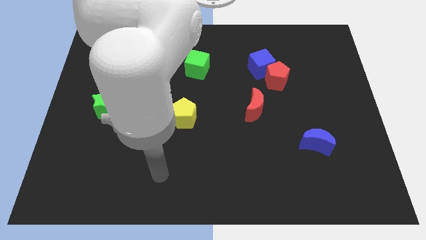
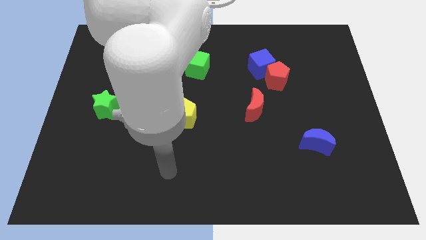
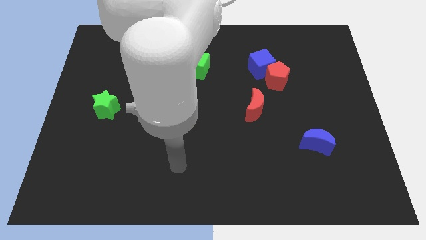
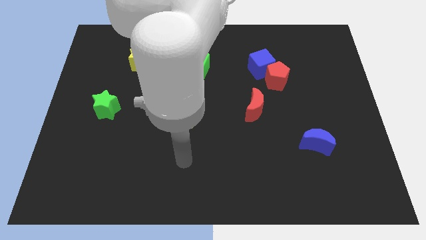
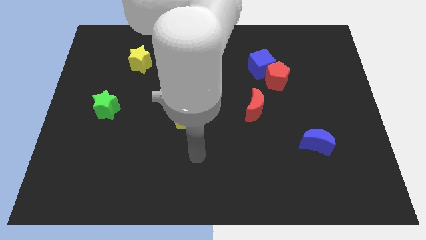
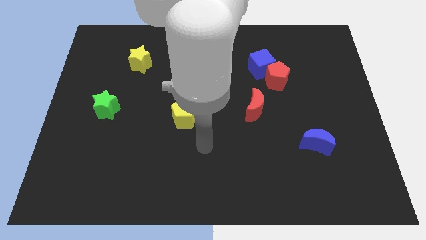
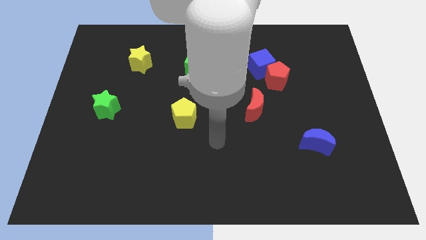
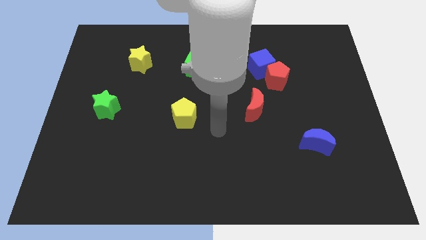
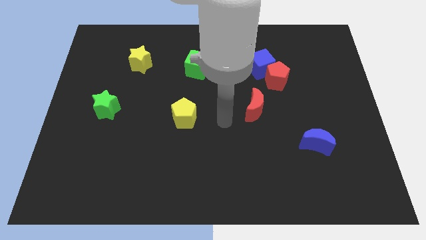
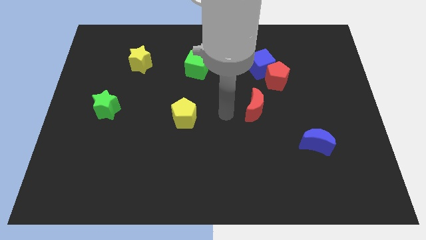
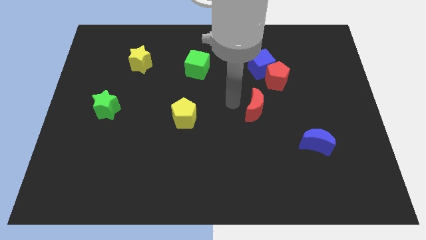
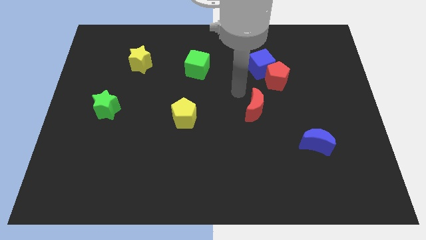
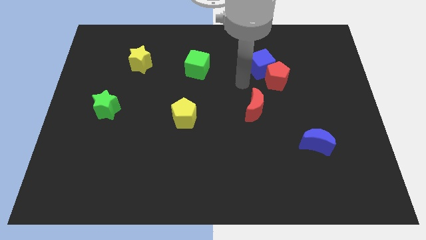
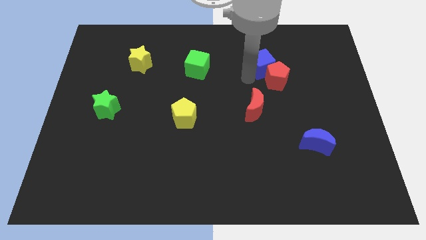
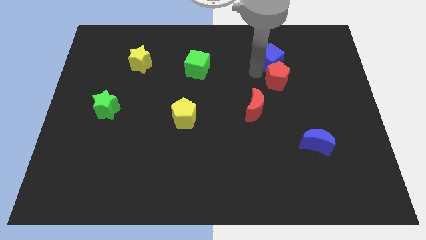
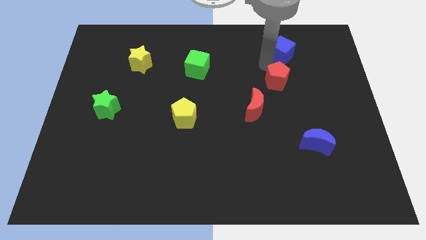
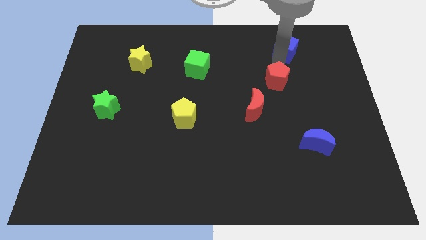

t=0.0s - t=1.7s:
pull the red pentagon apart from the blue cube

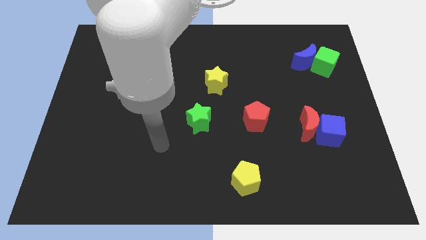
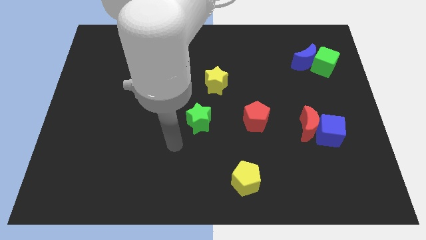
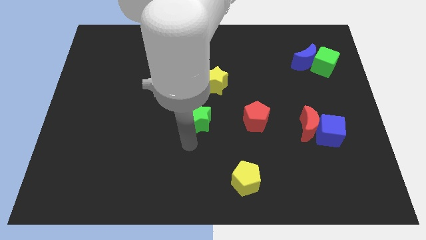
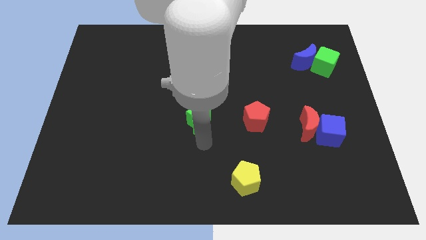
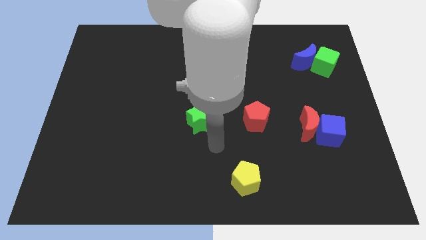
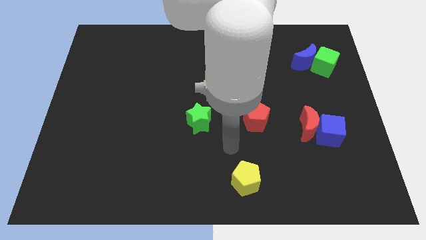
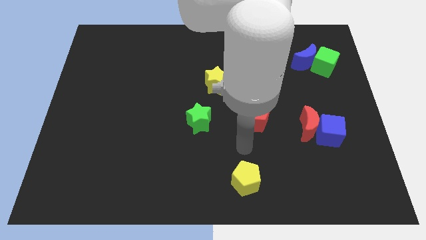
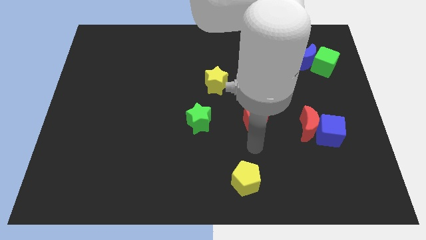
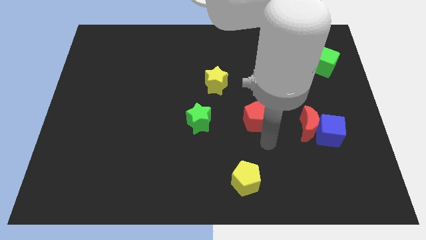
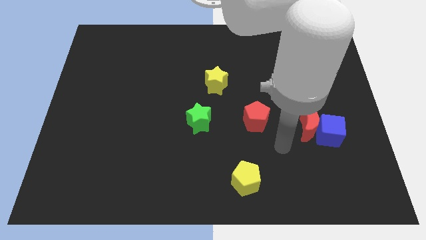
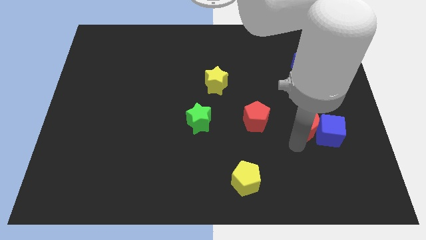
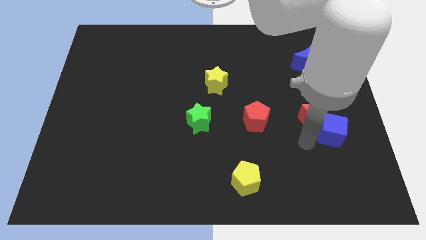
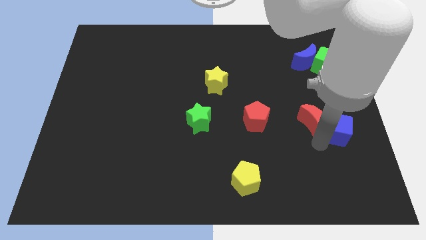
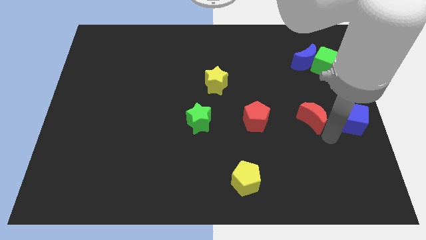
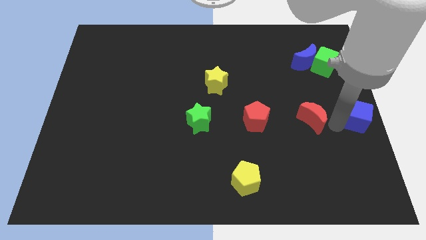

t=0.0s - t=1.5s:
pull the red moon apart from the blue cube

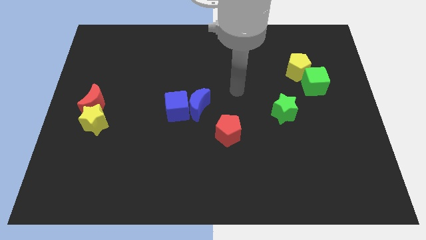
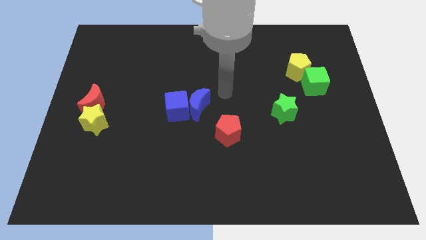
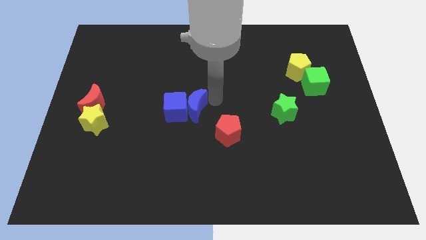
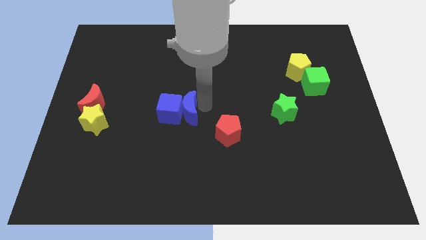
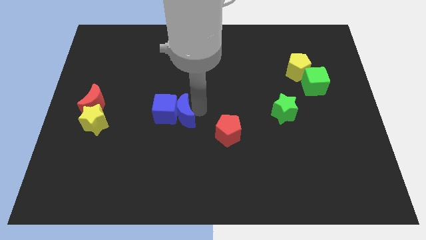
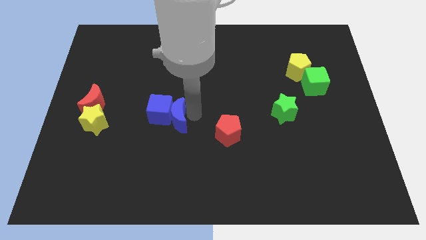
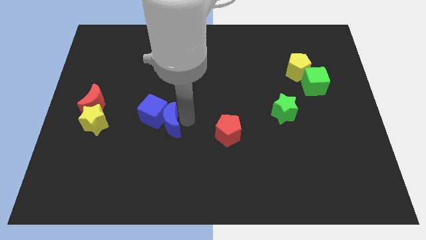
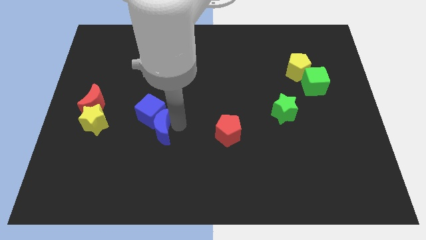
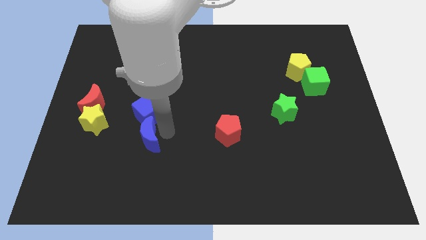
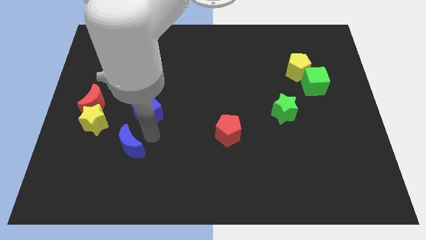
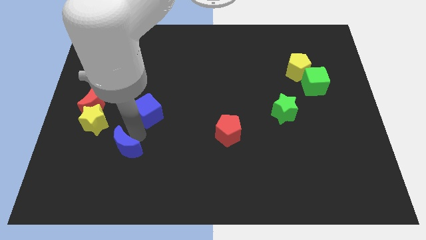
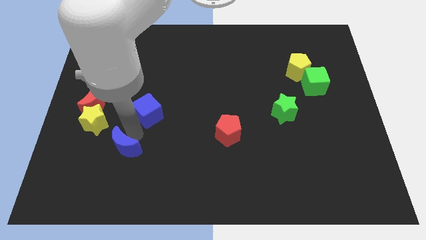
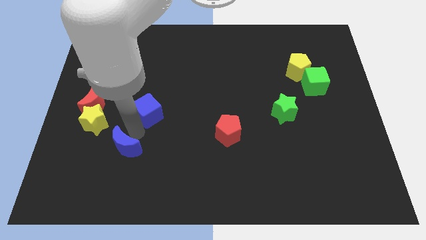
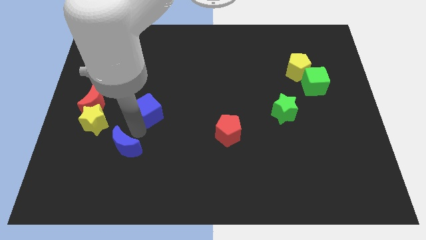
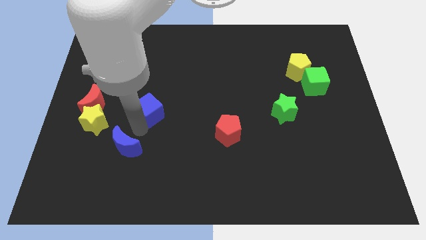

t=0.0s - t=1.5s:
move the blue cube away from the blue moon

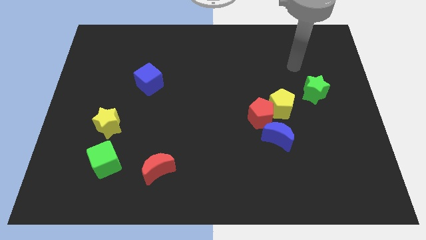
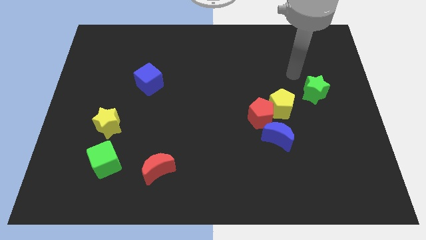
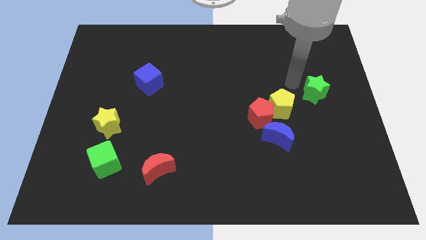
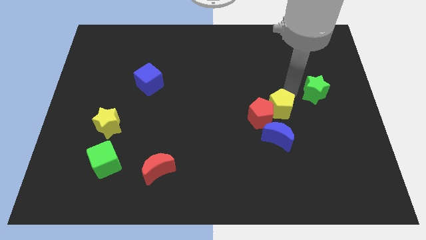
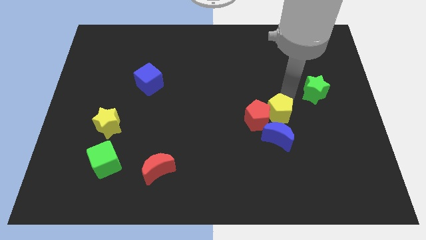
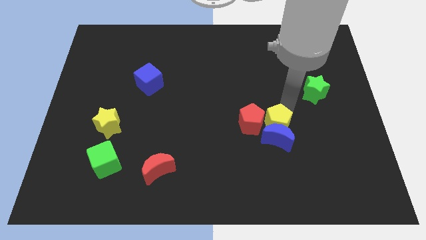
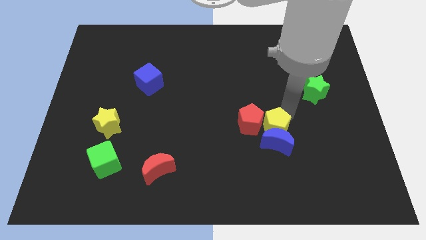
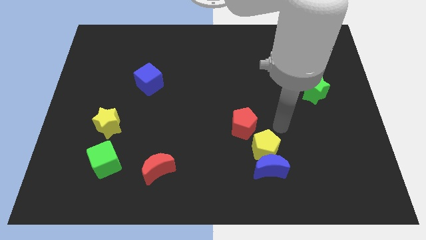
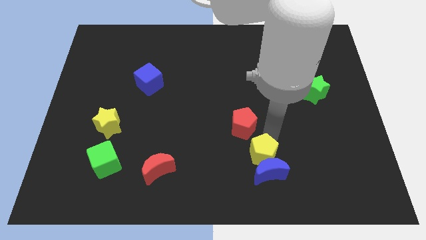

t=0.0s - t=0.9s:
separate the red pentagon from the yellow pentagon and blue moon

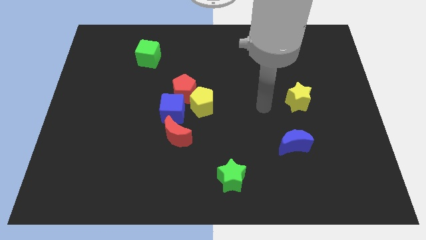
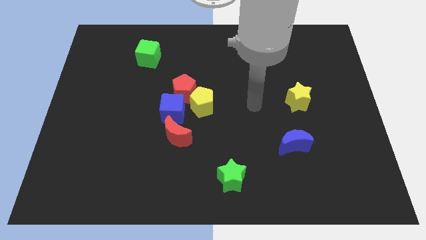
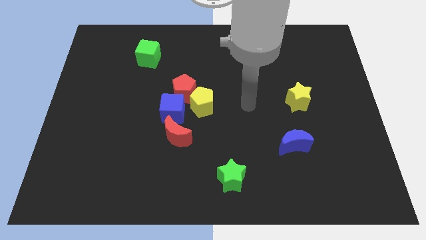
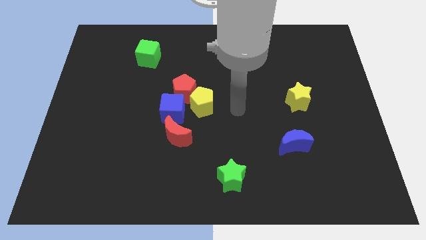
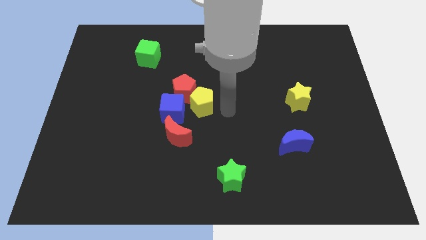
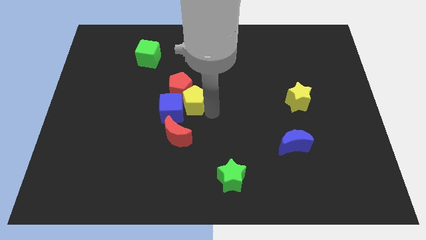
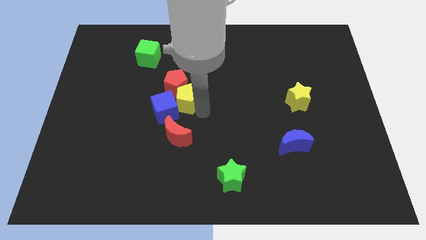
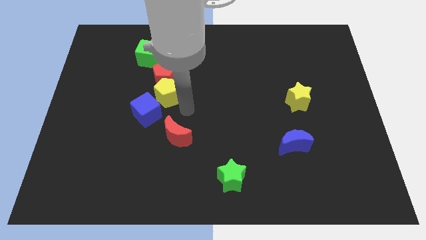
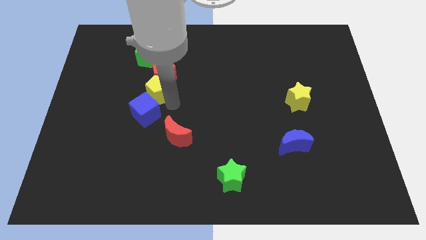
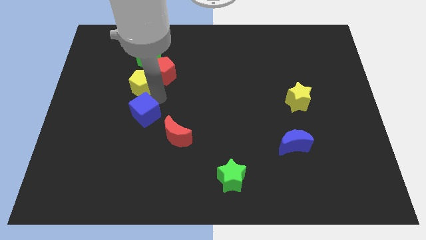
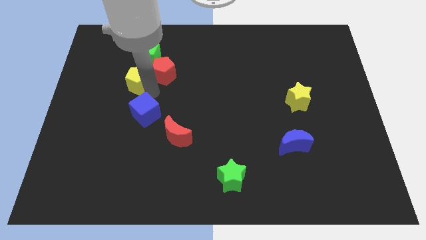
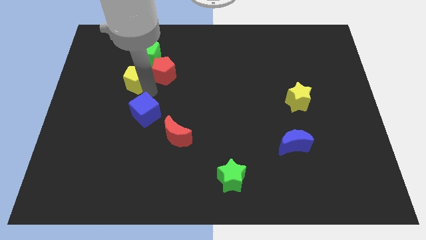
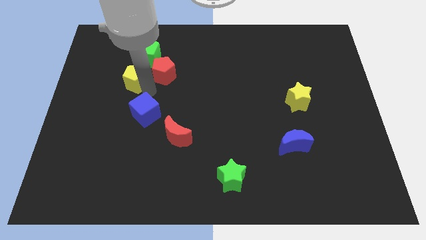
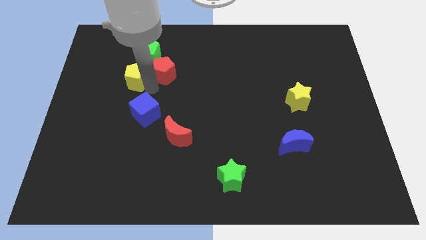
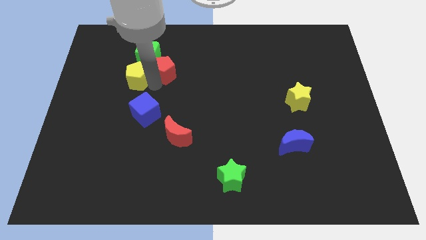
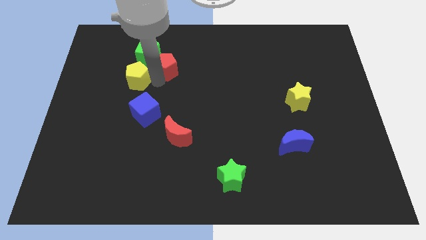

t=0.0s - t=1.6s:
pull the red pentagon apart from the yellow pentagon and blue cube

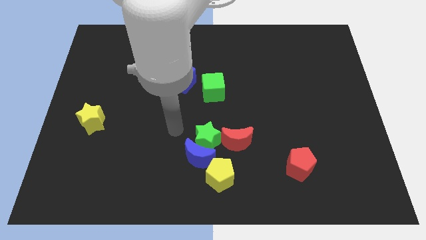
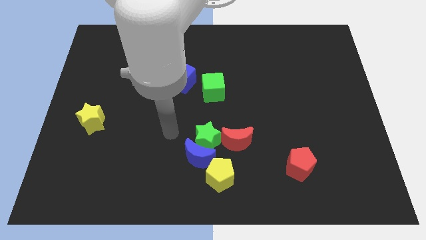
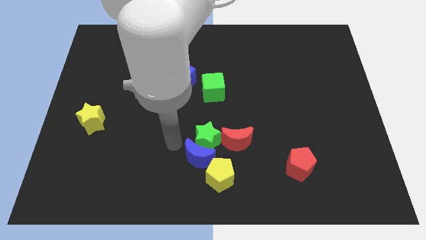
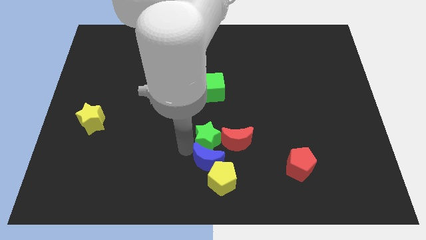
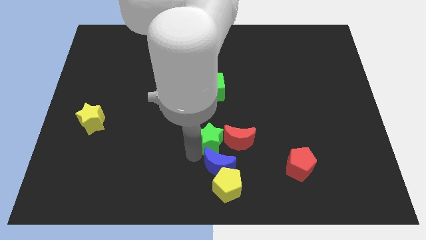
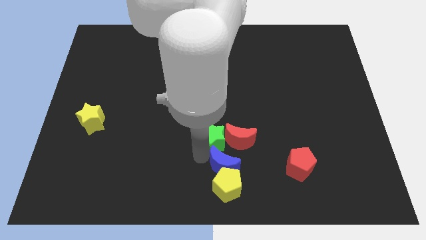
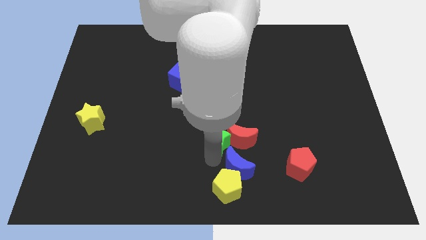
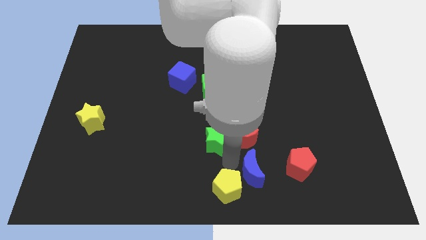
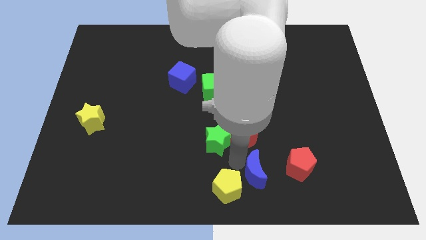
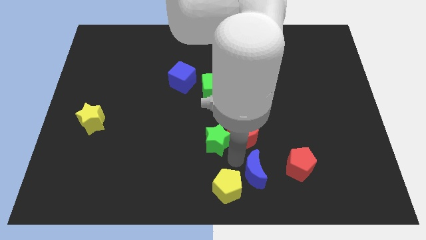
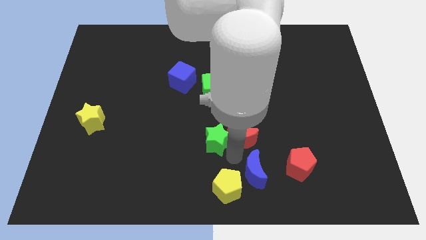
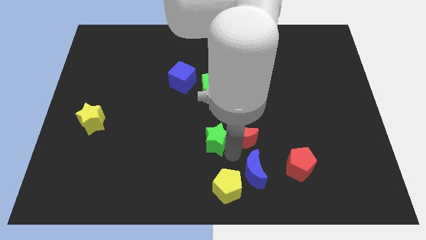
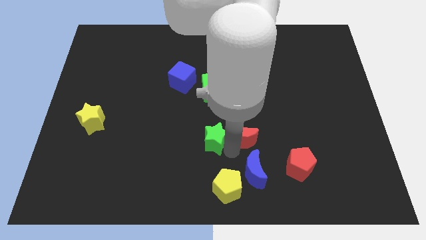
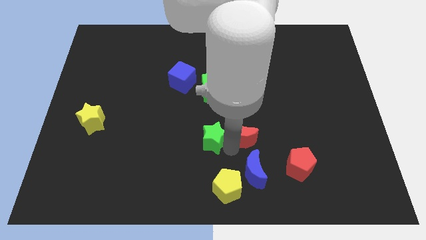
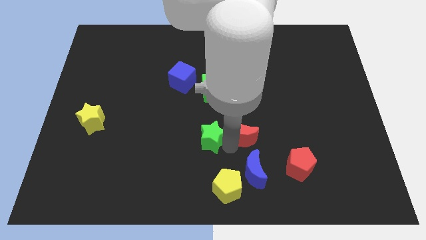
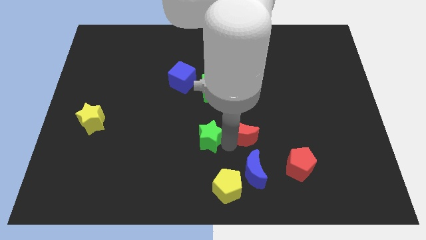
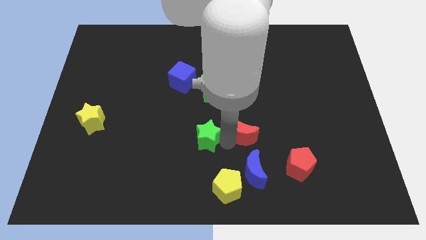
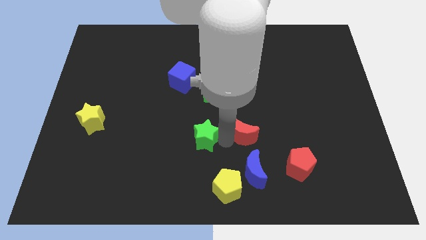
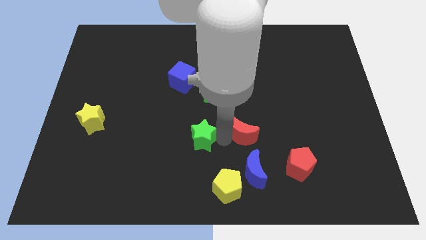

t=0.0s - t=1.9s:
separate the green star from the blue moon, red moon, and yellow pentagon

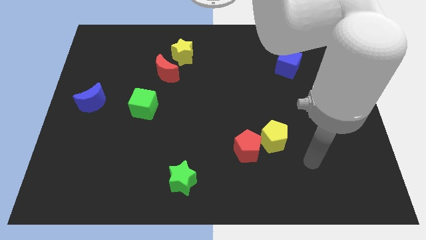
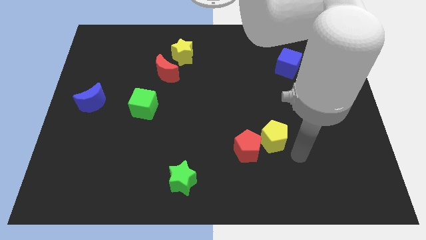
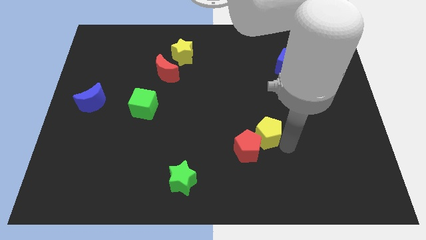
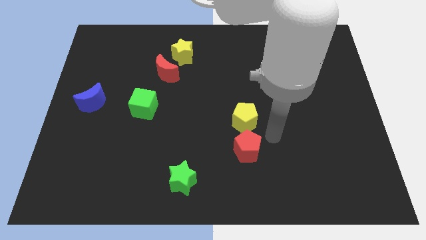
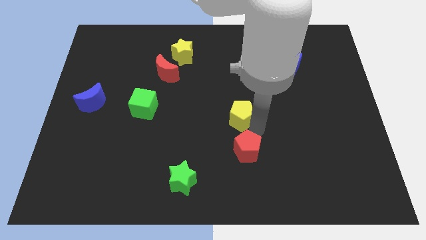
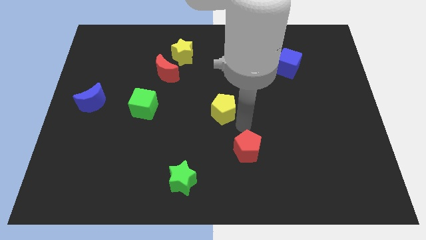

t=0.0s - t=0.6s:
move the red pentagon away from the yellow pentagon
